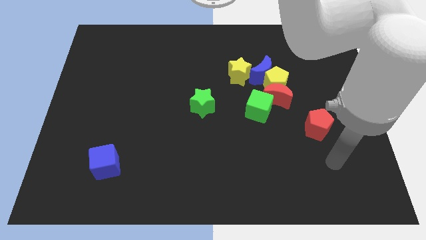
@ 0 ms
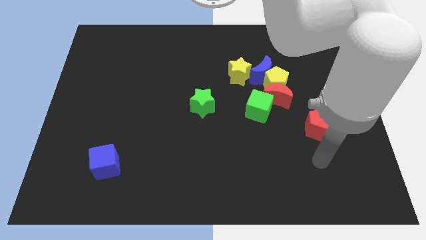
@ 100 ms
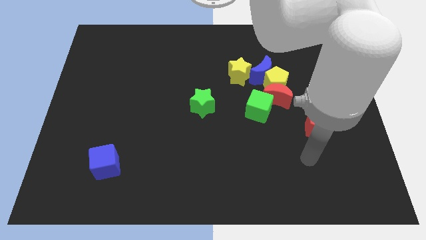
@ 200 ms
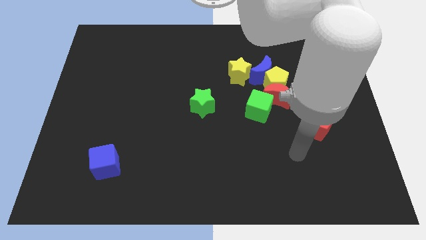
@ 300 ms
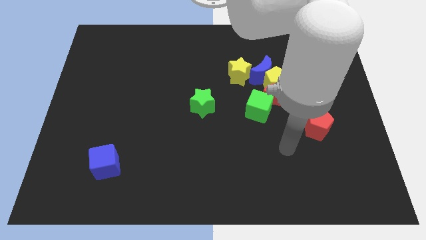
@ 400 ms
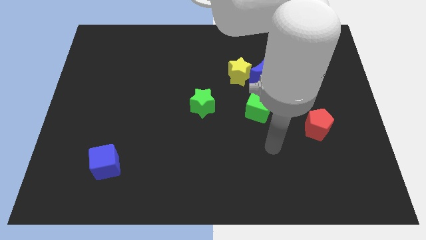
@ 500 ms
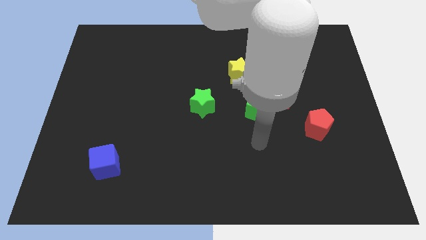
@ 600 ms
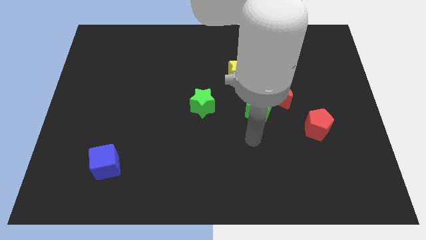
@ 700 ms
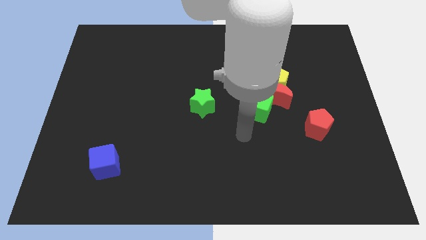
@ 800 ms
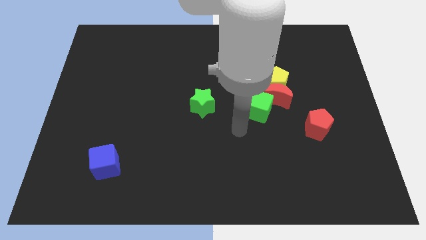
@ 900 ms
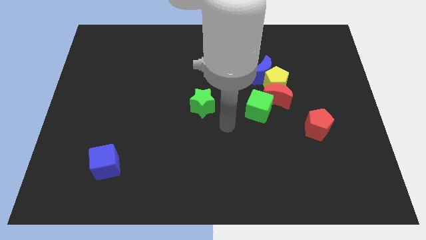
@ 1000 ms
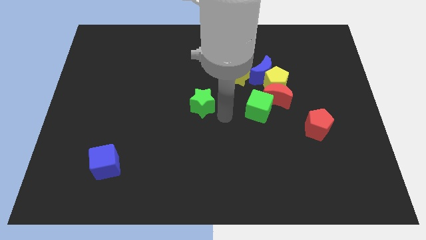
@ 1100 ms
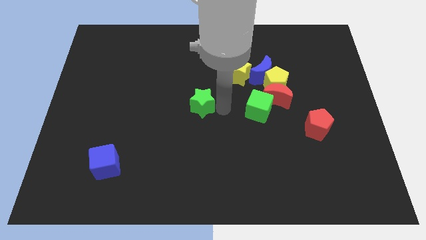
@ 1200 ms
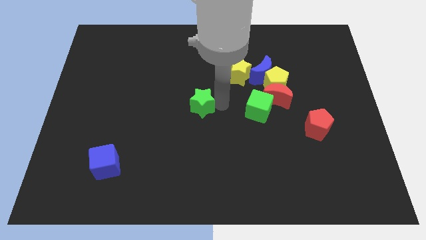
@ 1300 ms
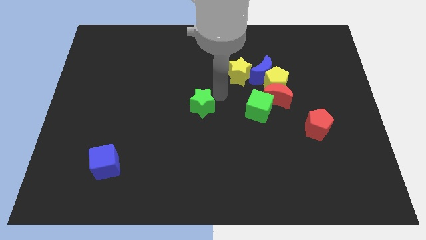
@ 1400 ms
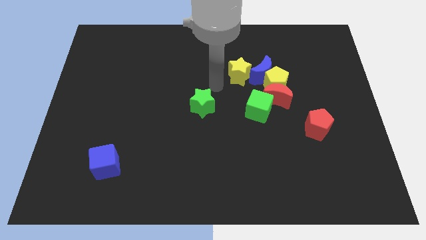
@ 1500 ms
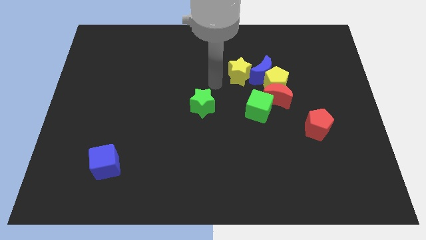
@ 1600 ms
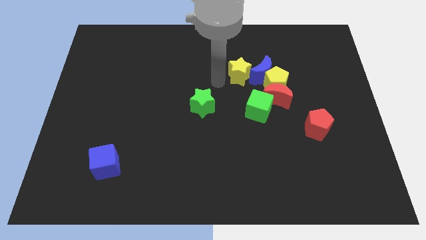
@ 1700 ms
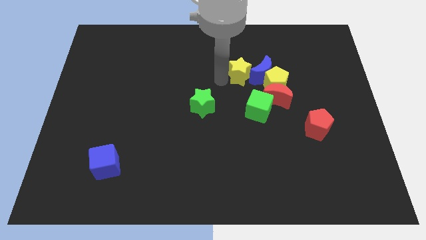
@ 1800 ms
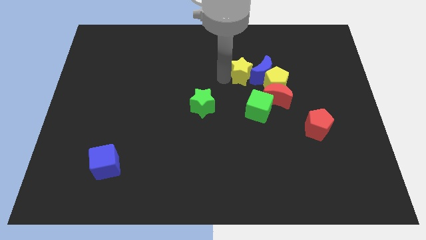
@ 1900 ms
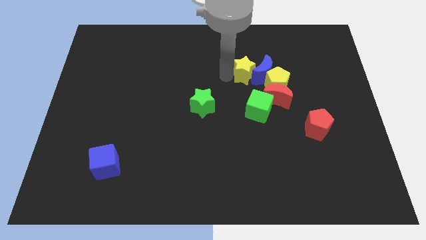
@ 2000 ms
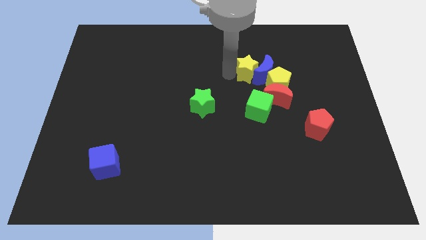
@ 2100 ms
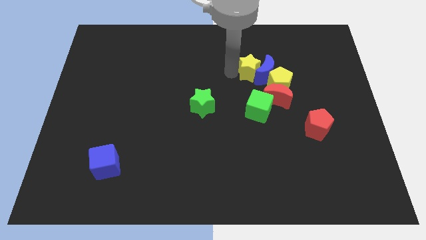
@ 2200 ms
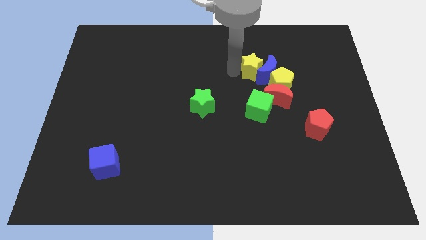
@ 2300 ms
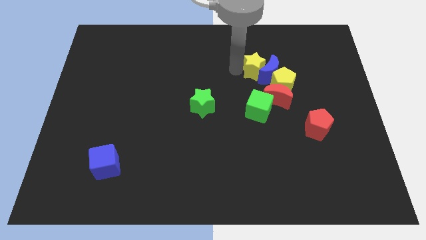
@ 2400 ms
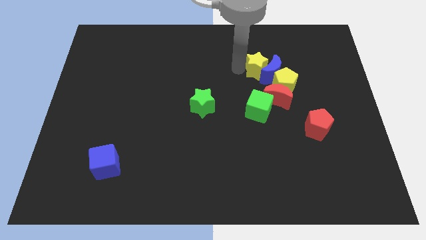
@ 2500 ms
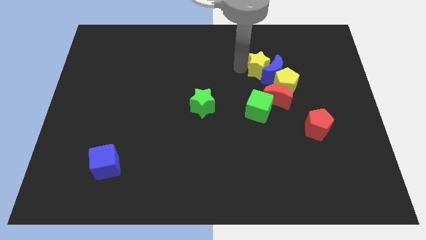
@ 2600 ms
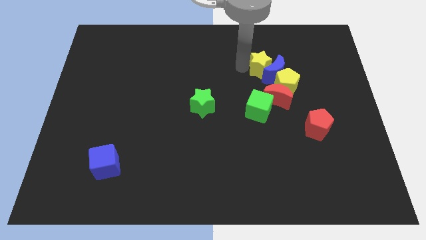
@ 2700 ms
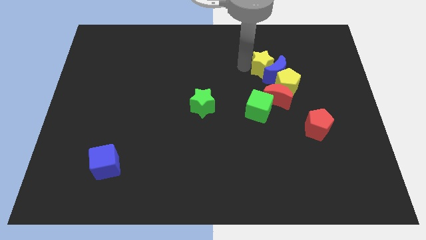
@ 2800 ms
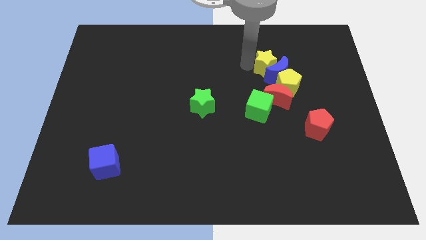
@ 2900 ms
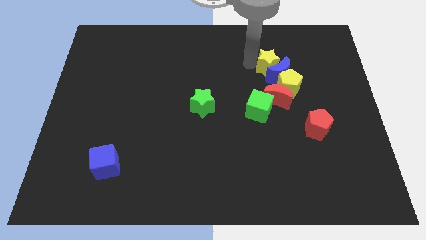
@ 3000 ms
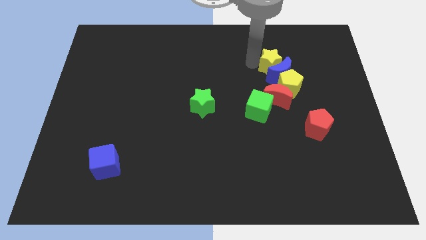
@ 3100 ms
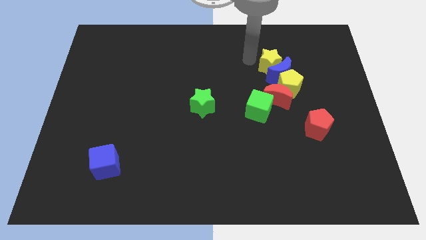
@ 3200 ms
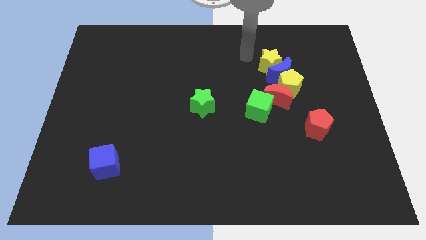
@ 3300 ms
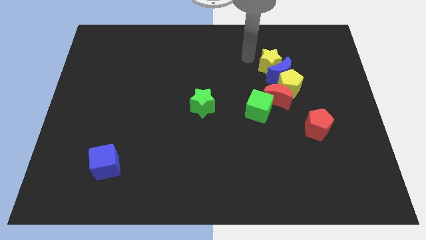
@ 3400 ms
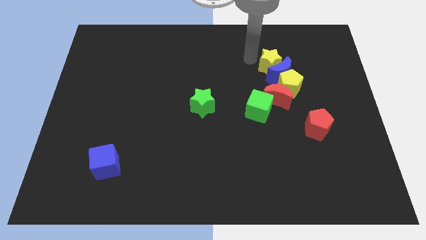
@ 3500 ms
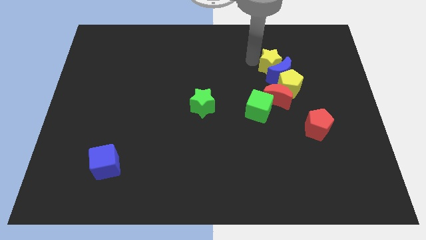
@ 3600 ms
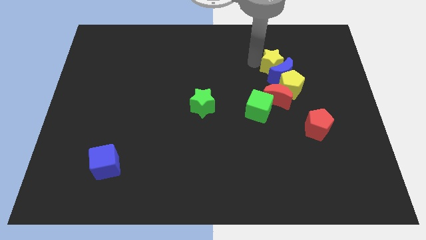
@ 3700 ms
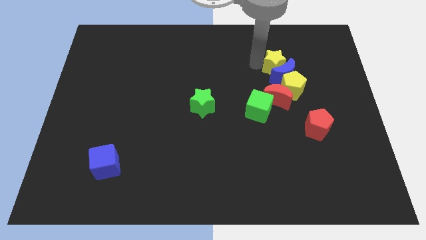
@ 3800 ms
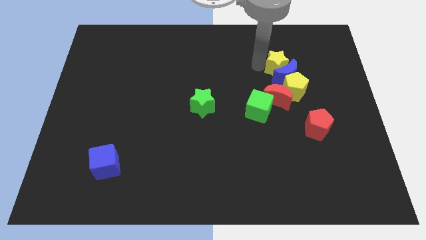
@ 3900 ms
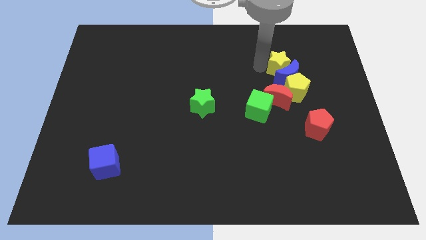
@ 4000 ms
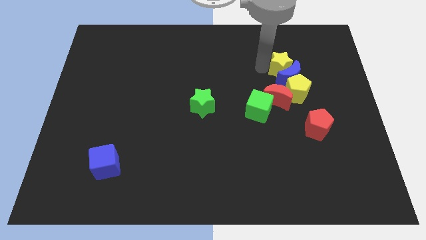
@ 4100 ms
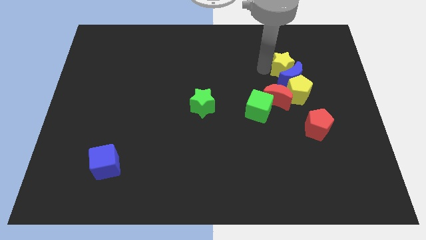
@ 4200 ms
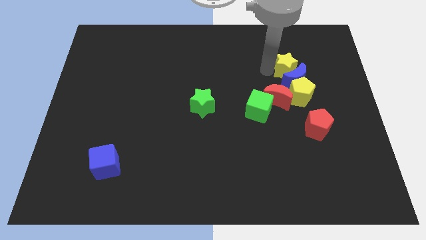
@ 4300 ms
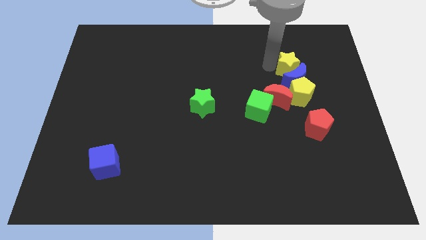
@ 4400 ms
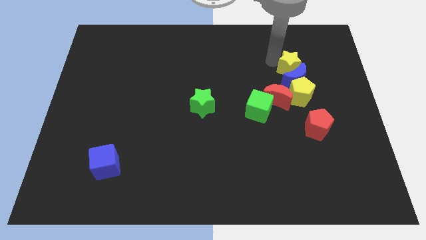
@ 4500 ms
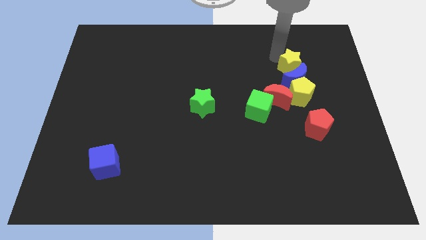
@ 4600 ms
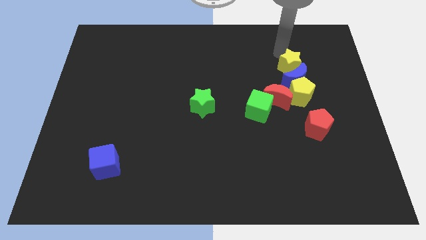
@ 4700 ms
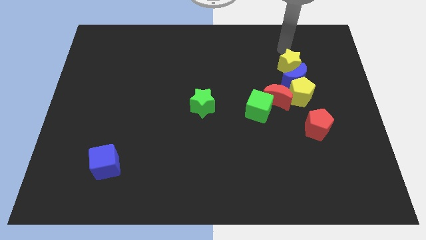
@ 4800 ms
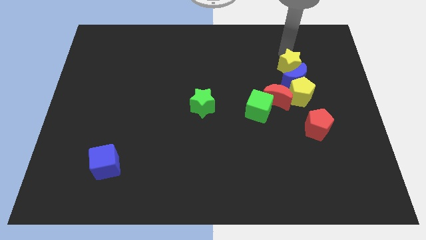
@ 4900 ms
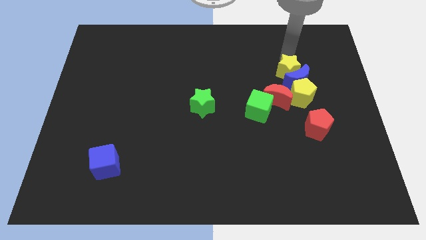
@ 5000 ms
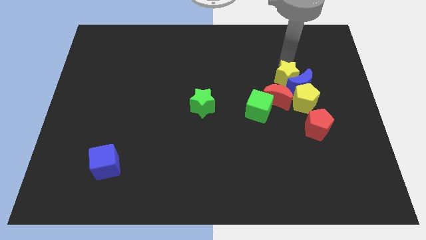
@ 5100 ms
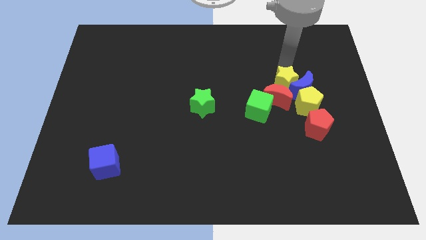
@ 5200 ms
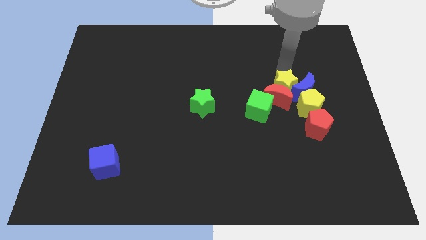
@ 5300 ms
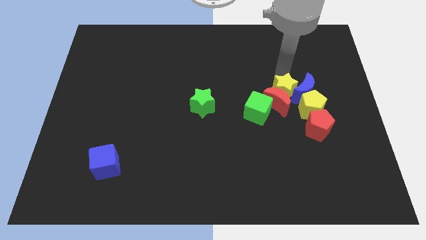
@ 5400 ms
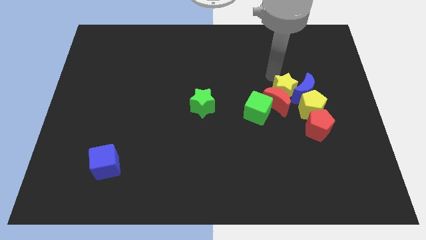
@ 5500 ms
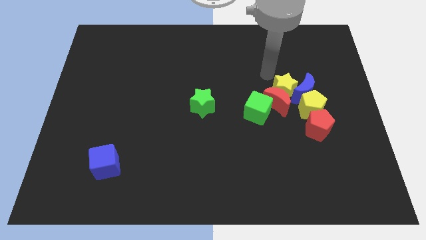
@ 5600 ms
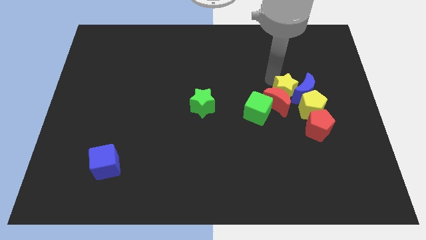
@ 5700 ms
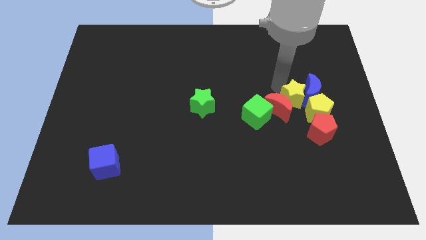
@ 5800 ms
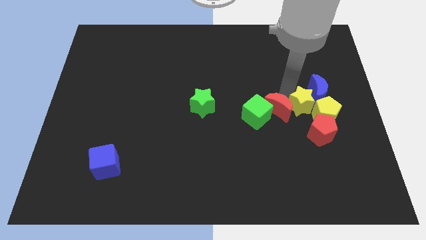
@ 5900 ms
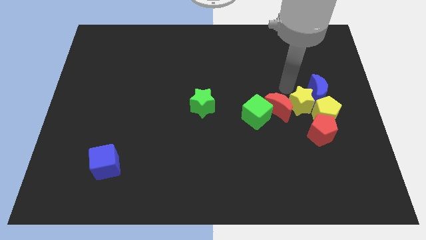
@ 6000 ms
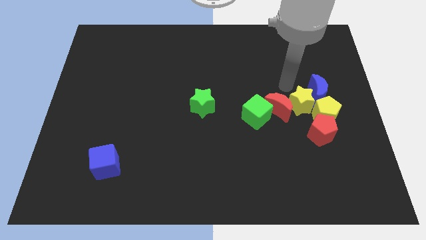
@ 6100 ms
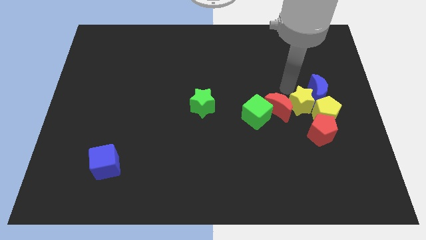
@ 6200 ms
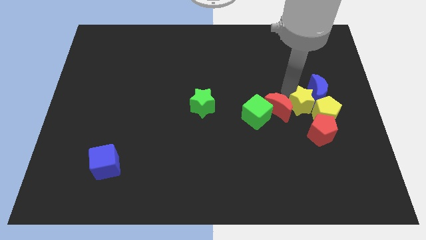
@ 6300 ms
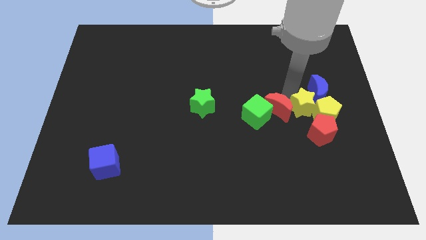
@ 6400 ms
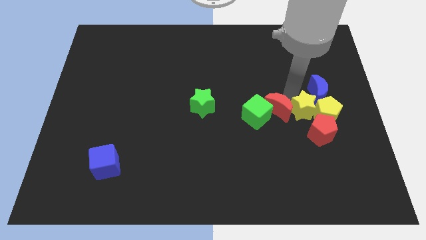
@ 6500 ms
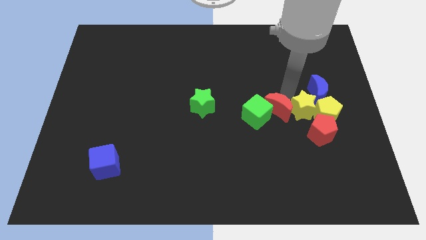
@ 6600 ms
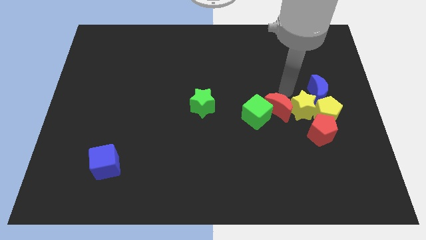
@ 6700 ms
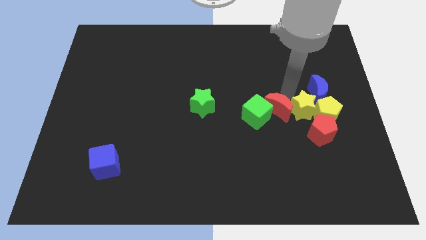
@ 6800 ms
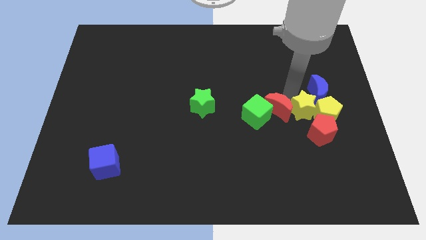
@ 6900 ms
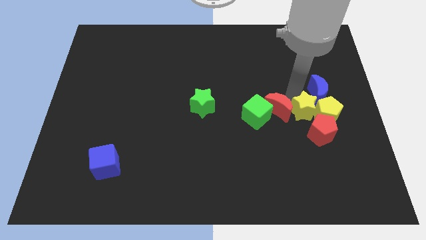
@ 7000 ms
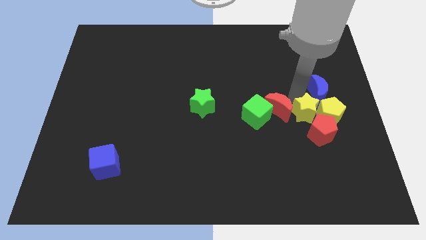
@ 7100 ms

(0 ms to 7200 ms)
push the yellow star towards the red pentagon

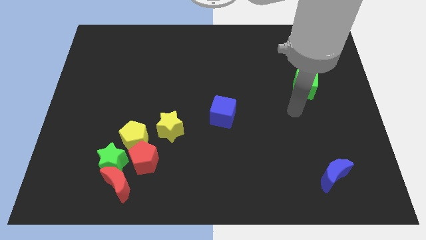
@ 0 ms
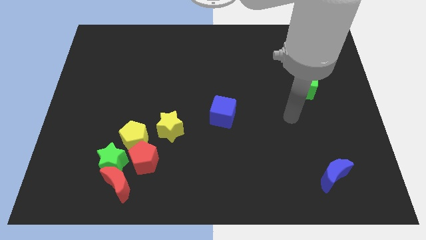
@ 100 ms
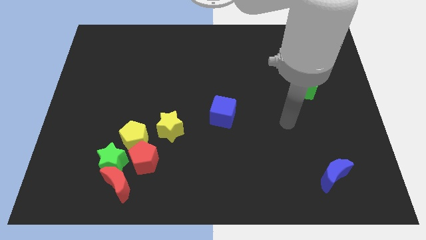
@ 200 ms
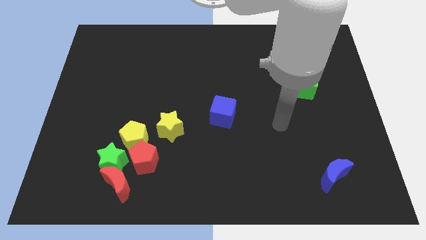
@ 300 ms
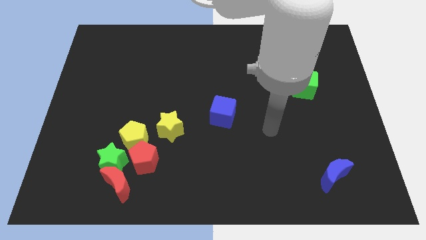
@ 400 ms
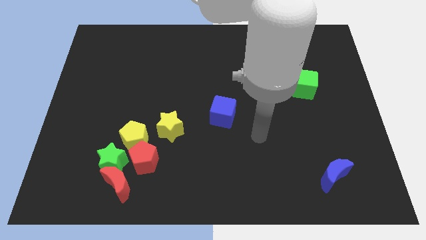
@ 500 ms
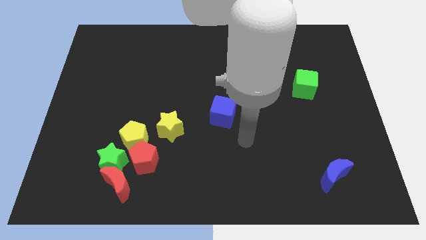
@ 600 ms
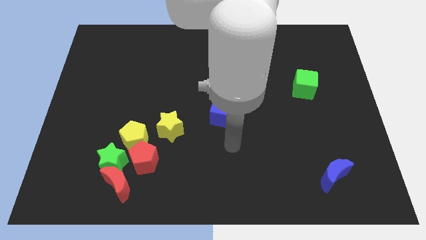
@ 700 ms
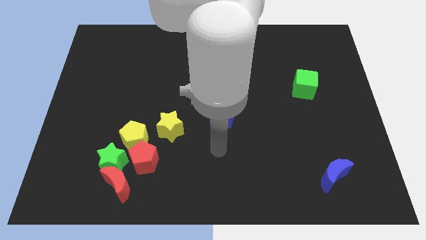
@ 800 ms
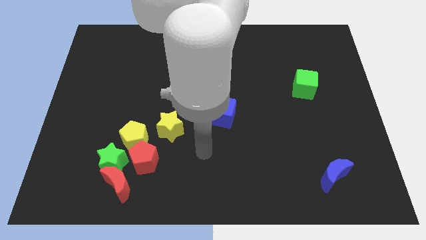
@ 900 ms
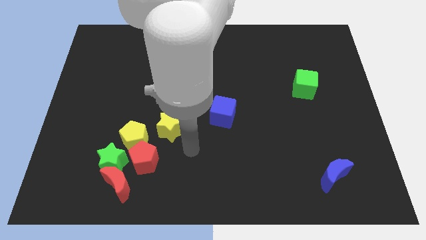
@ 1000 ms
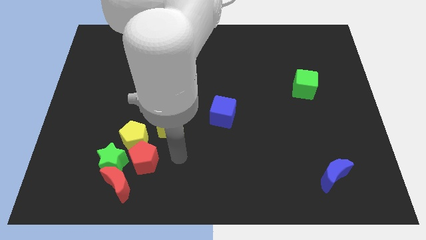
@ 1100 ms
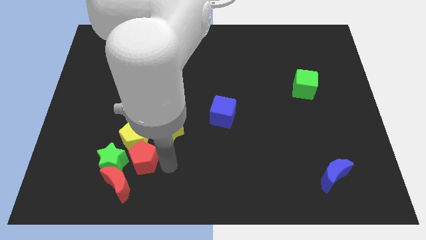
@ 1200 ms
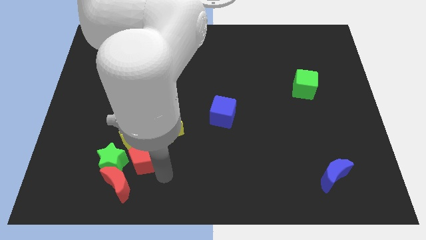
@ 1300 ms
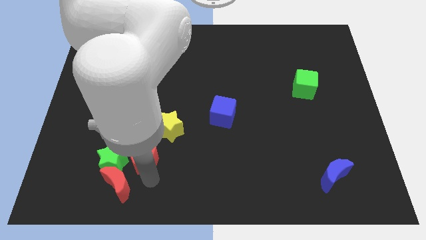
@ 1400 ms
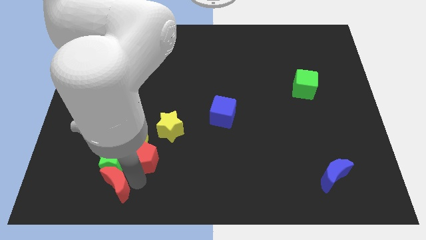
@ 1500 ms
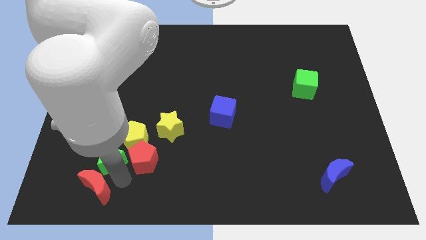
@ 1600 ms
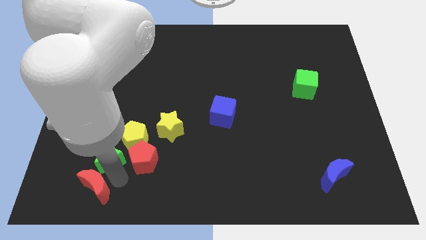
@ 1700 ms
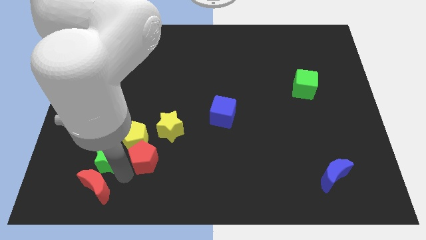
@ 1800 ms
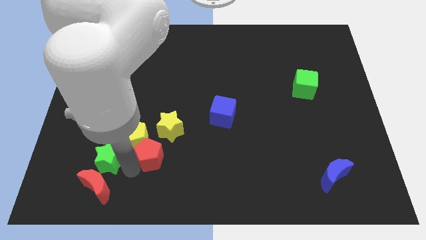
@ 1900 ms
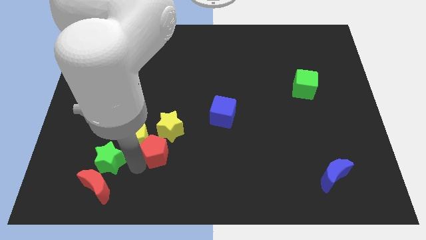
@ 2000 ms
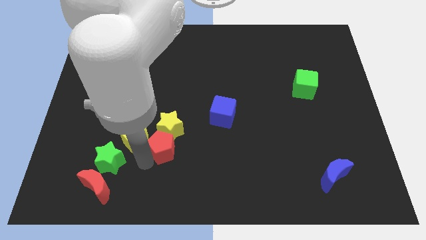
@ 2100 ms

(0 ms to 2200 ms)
move the red pentagon to the yellow star
